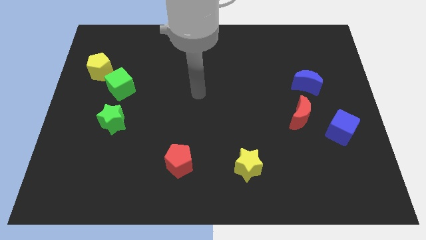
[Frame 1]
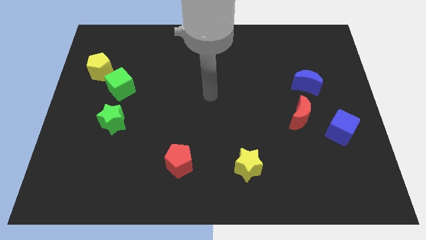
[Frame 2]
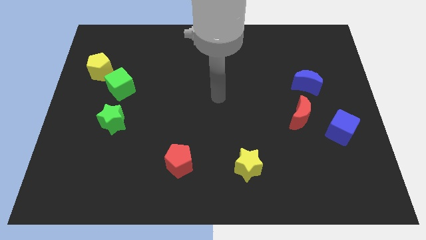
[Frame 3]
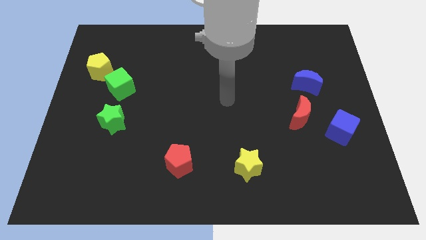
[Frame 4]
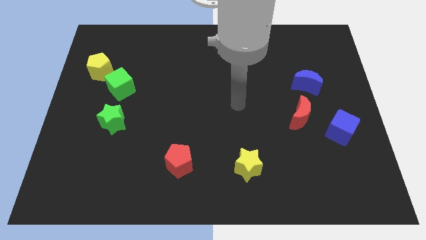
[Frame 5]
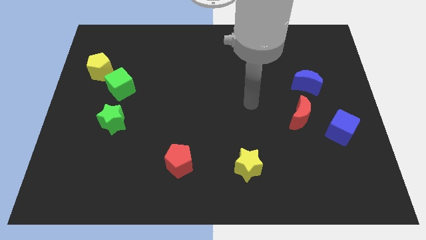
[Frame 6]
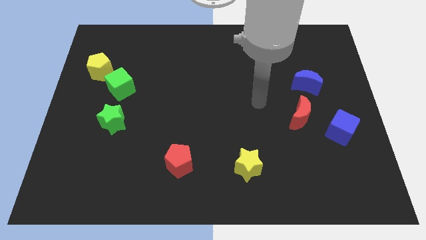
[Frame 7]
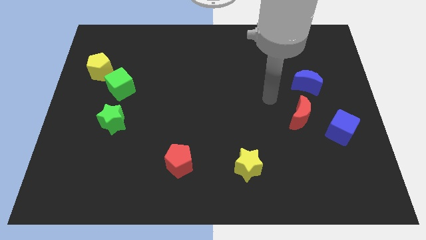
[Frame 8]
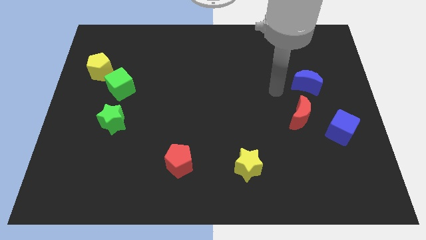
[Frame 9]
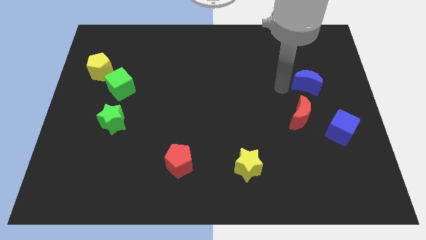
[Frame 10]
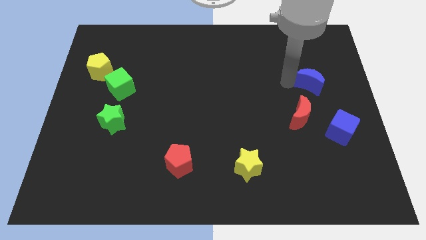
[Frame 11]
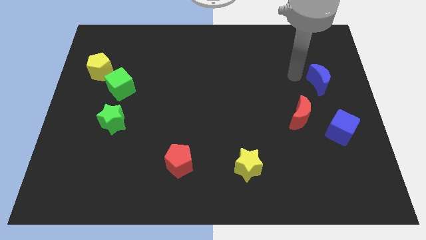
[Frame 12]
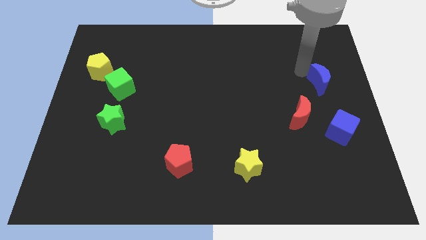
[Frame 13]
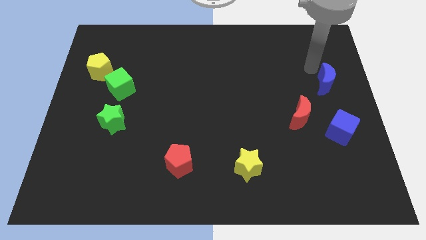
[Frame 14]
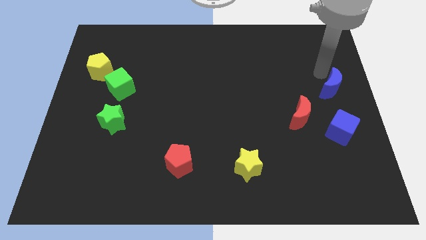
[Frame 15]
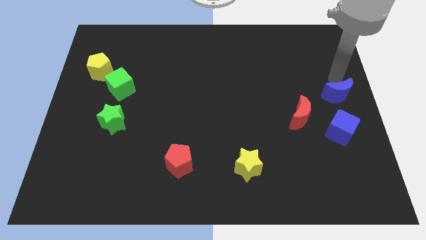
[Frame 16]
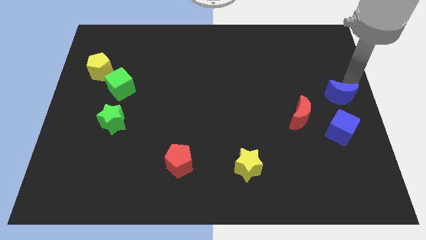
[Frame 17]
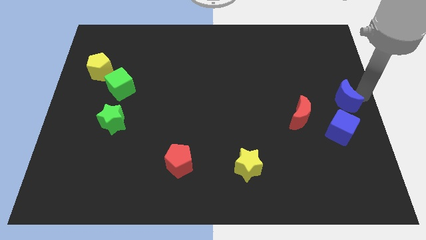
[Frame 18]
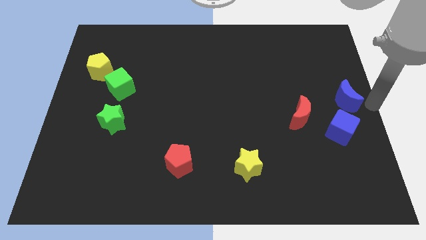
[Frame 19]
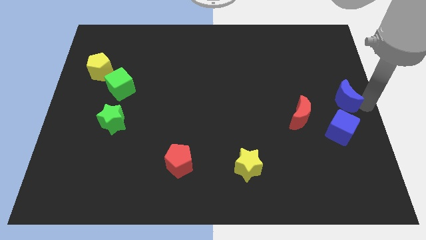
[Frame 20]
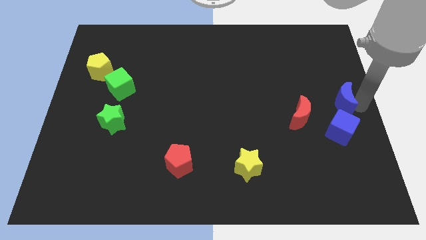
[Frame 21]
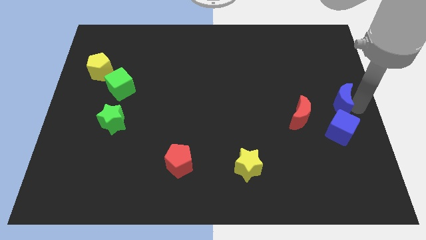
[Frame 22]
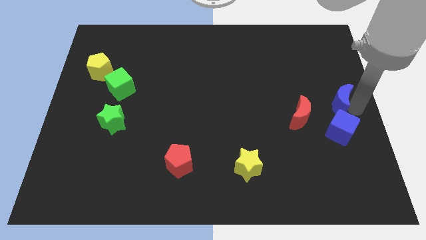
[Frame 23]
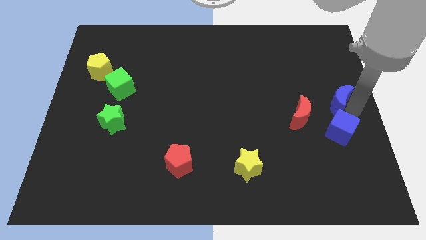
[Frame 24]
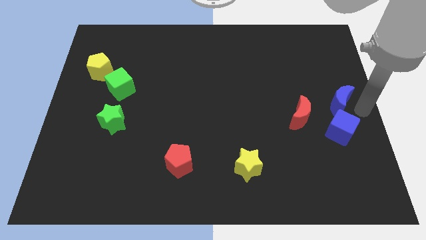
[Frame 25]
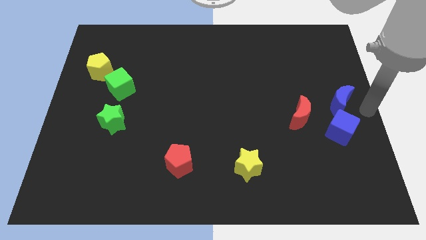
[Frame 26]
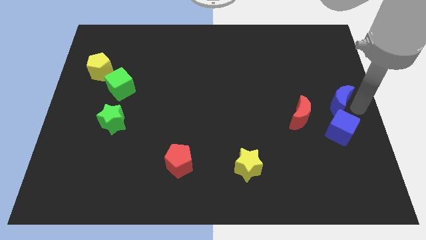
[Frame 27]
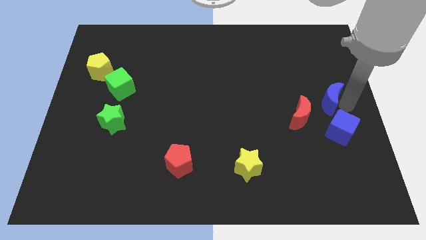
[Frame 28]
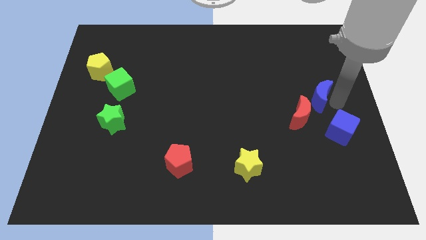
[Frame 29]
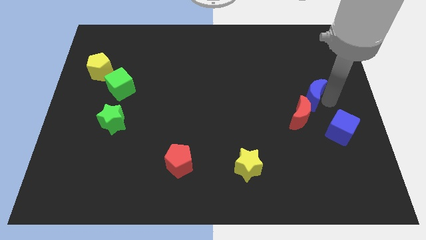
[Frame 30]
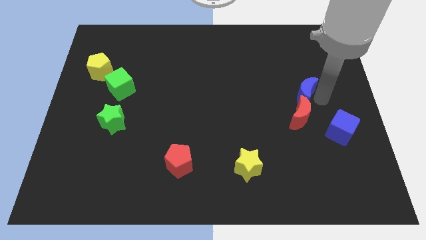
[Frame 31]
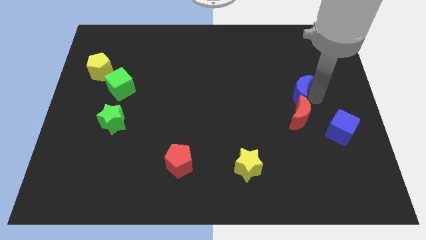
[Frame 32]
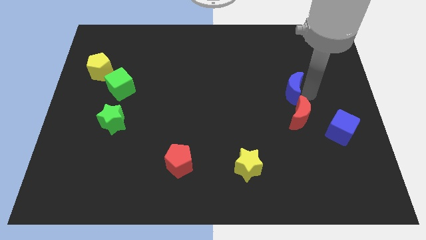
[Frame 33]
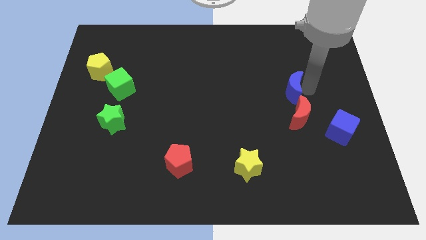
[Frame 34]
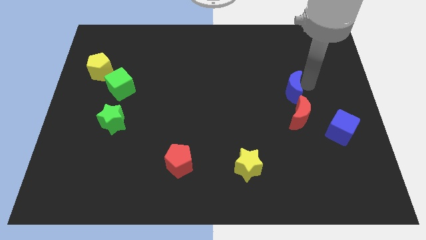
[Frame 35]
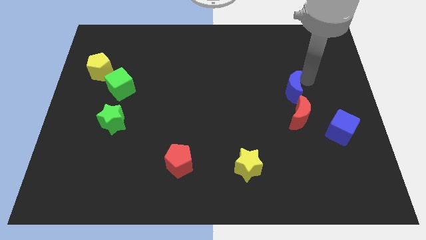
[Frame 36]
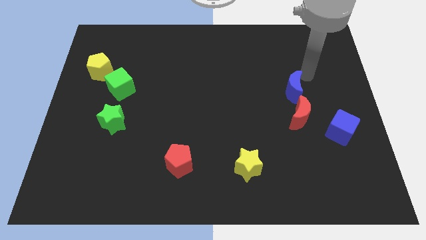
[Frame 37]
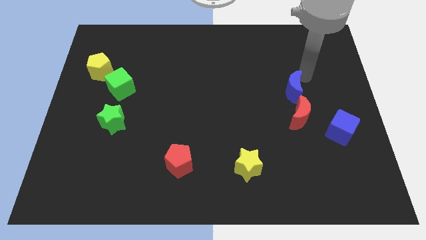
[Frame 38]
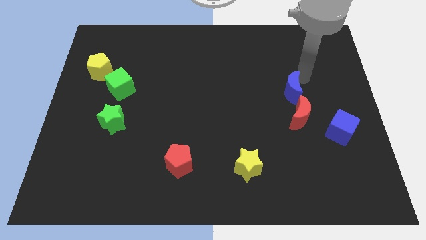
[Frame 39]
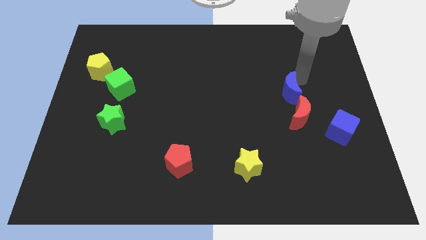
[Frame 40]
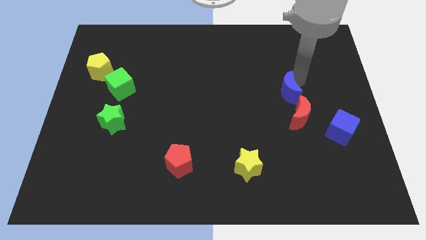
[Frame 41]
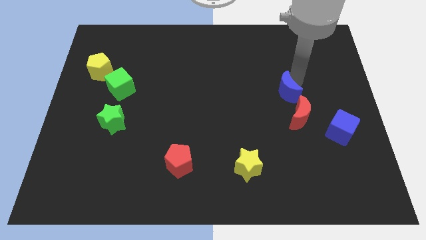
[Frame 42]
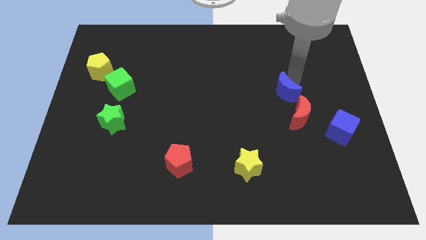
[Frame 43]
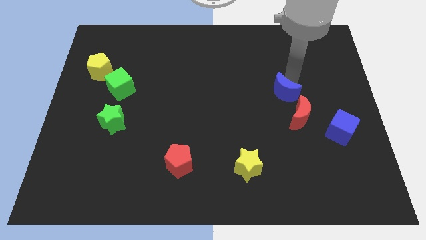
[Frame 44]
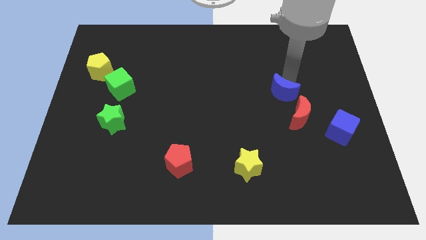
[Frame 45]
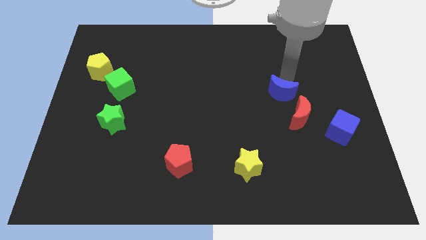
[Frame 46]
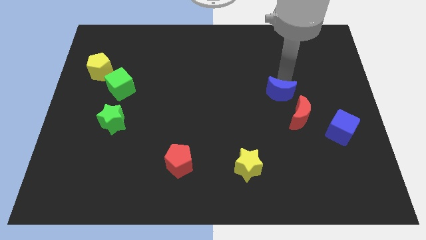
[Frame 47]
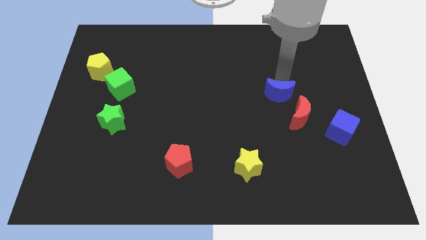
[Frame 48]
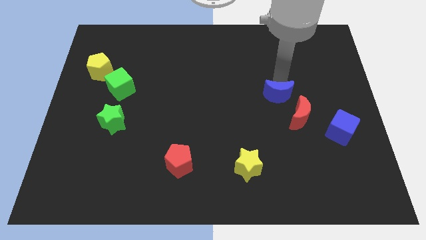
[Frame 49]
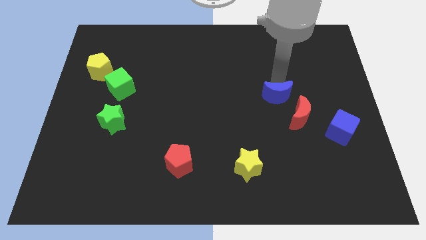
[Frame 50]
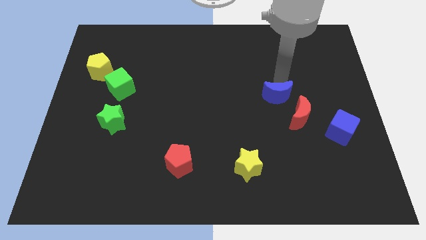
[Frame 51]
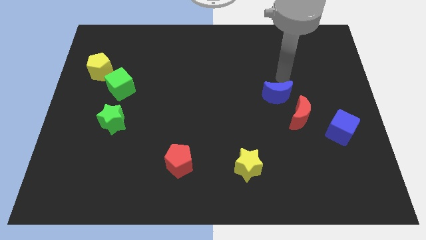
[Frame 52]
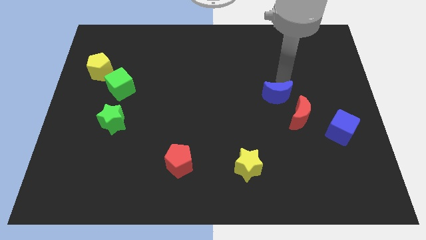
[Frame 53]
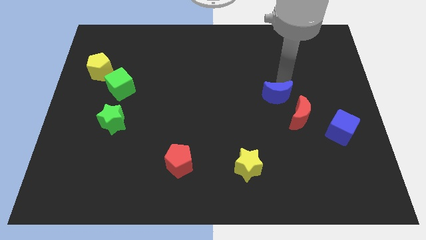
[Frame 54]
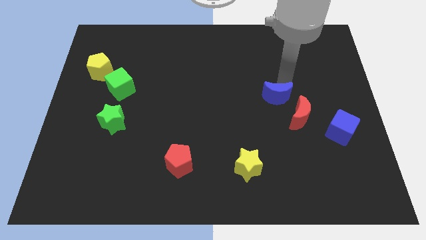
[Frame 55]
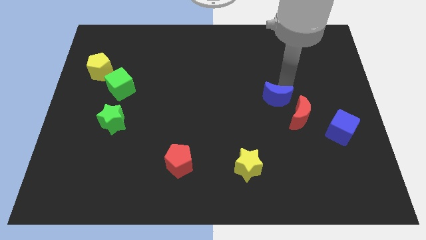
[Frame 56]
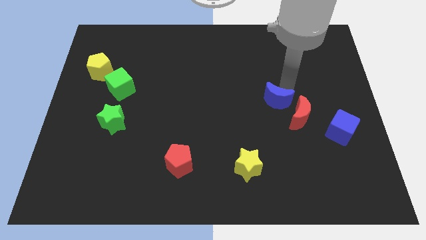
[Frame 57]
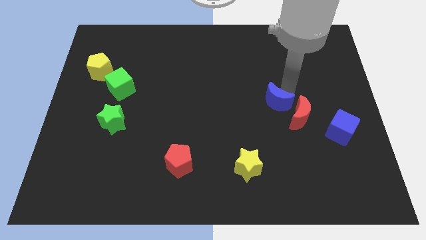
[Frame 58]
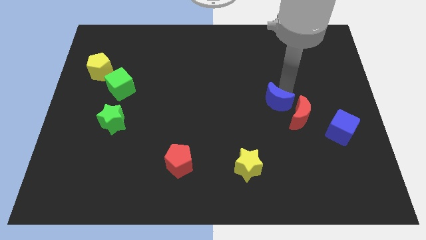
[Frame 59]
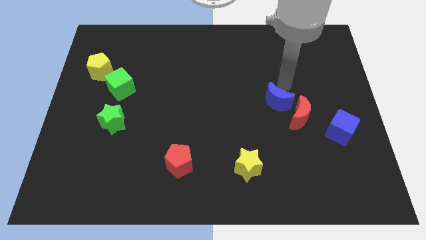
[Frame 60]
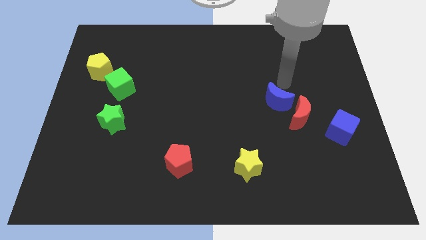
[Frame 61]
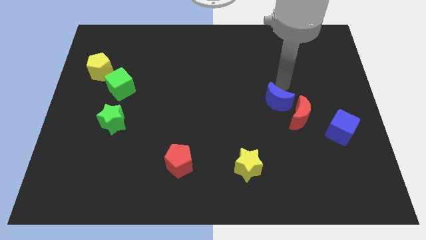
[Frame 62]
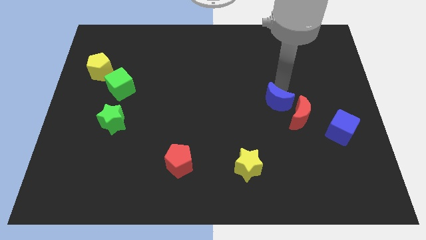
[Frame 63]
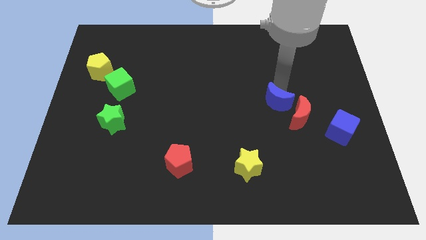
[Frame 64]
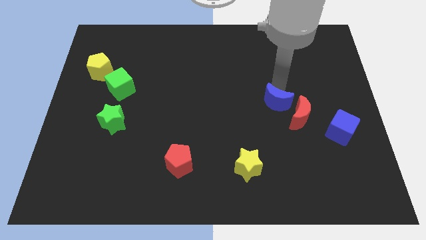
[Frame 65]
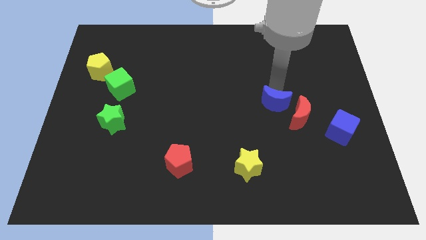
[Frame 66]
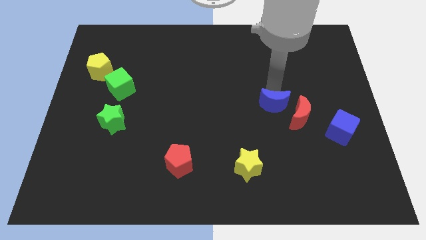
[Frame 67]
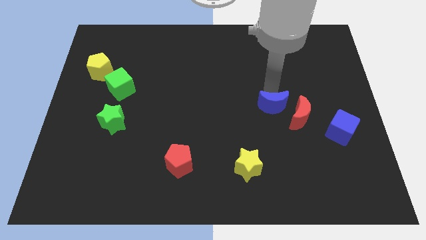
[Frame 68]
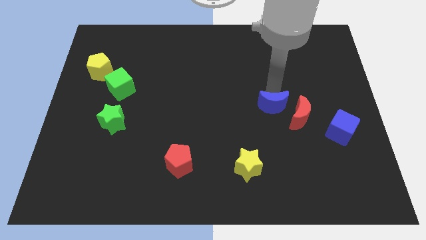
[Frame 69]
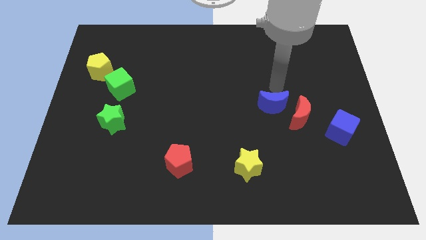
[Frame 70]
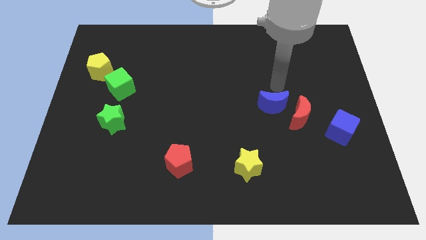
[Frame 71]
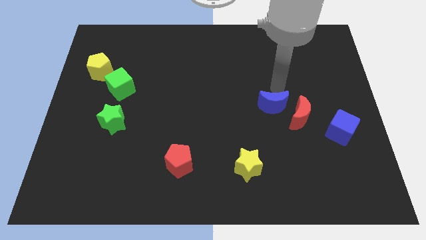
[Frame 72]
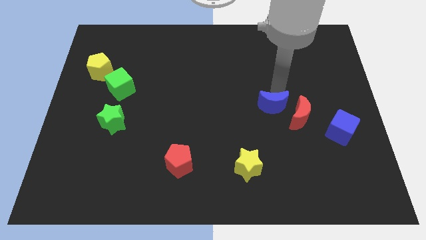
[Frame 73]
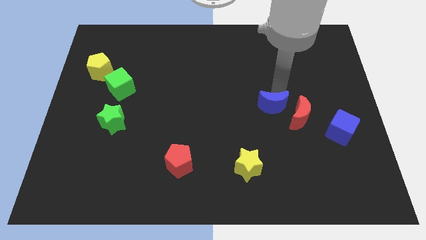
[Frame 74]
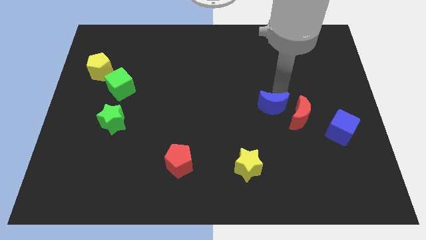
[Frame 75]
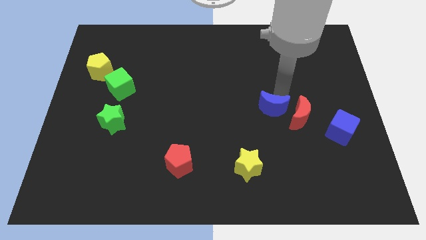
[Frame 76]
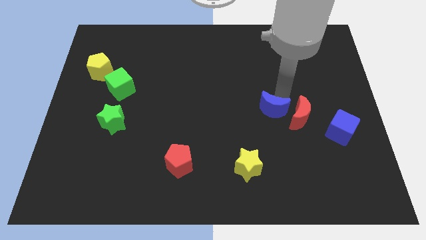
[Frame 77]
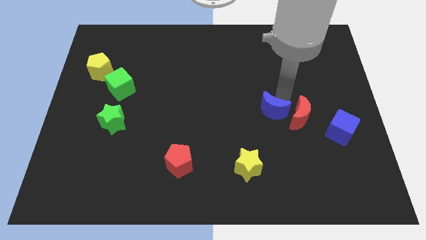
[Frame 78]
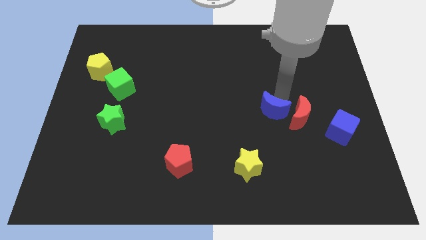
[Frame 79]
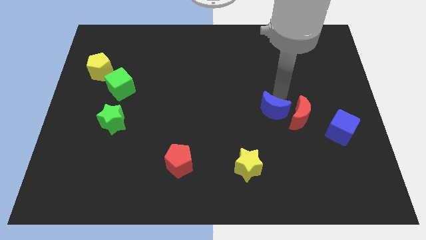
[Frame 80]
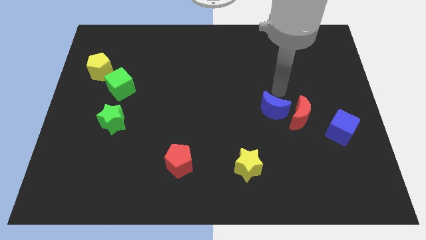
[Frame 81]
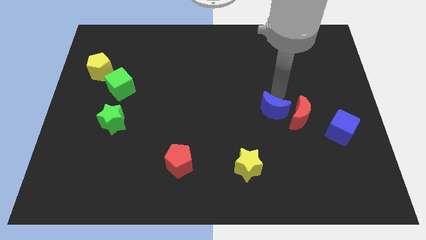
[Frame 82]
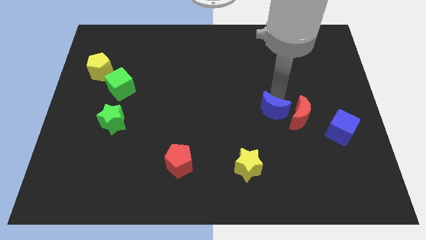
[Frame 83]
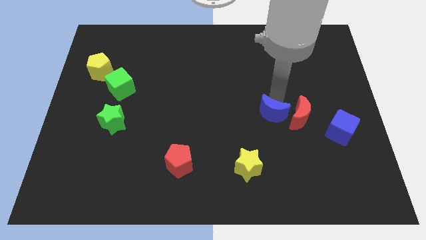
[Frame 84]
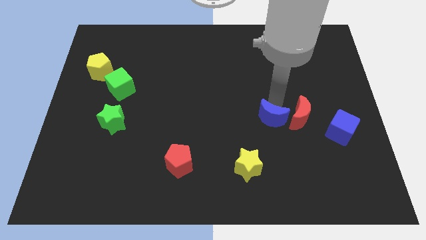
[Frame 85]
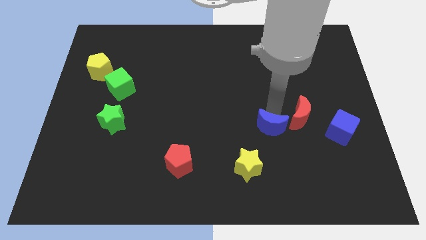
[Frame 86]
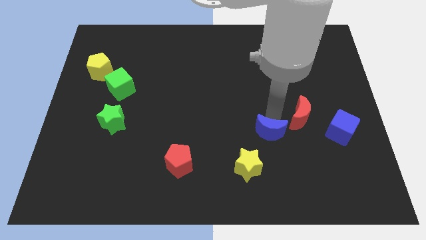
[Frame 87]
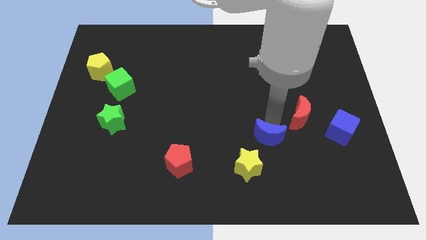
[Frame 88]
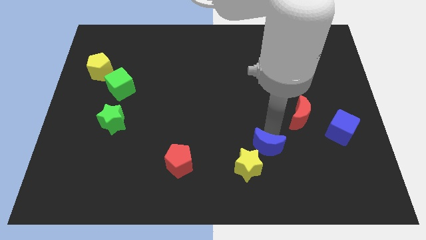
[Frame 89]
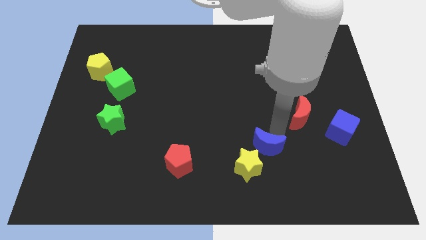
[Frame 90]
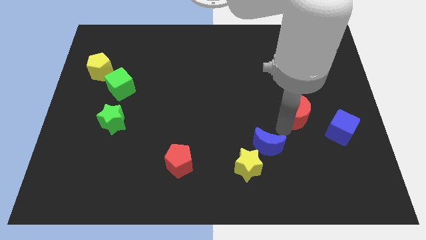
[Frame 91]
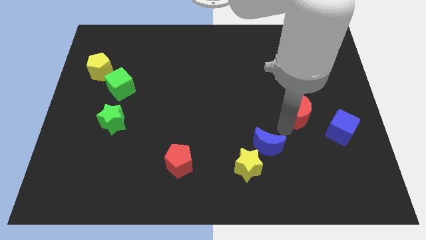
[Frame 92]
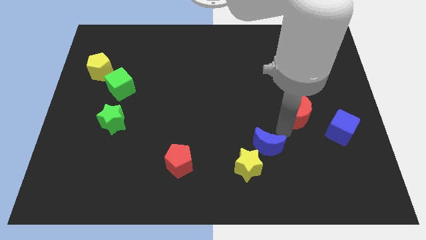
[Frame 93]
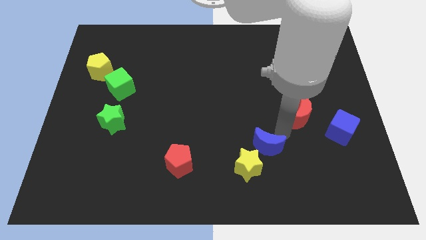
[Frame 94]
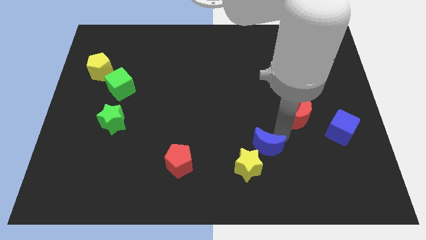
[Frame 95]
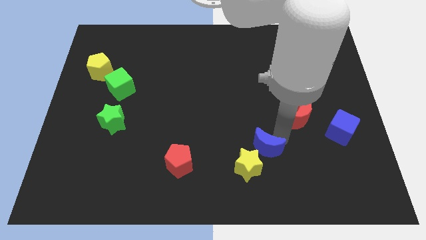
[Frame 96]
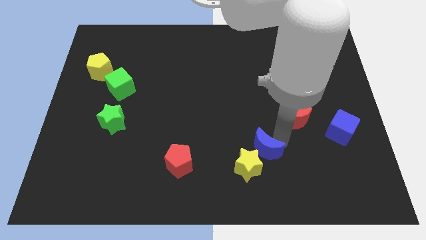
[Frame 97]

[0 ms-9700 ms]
push the blue moon to the yellow star
